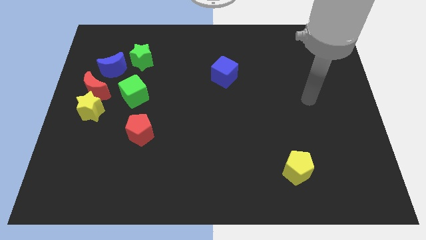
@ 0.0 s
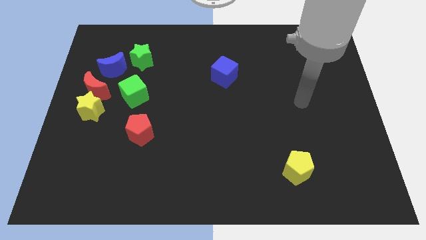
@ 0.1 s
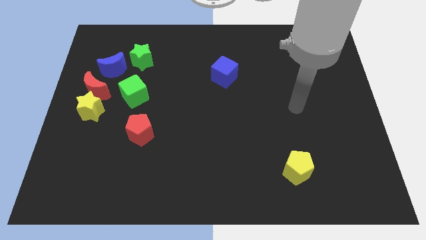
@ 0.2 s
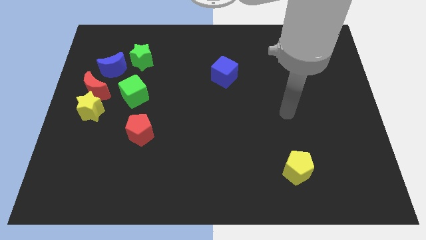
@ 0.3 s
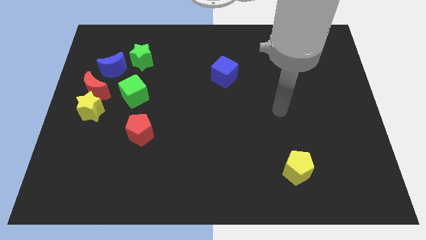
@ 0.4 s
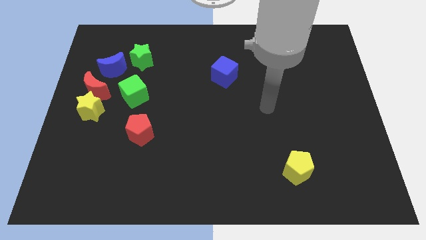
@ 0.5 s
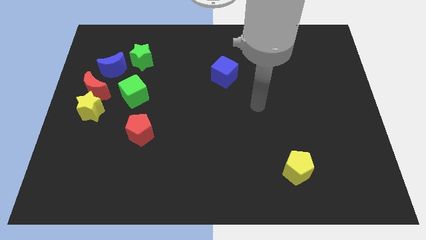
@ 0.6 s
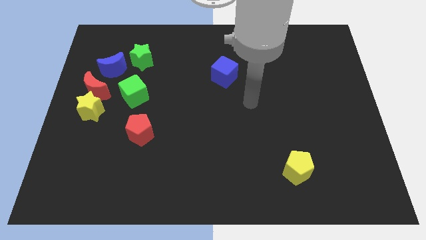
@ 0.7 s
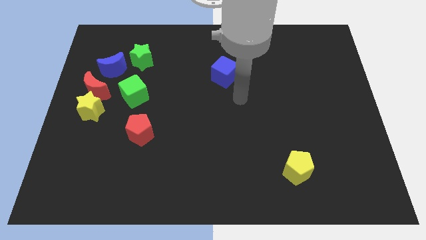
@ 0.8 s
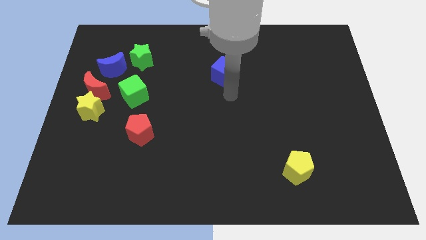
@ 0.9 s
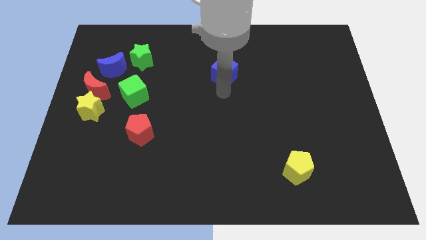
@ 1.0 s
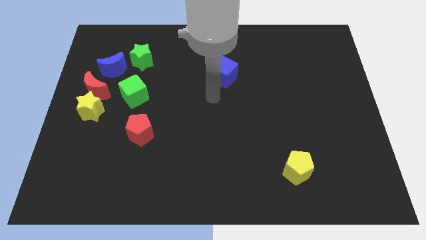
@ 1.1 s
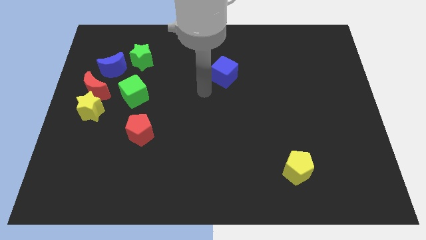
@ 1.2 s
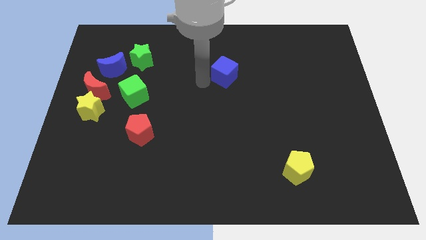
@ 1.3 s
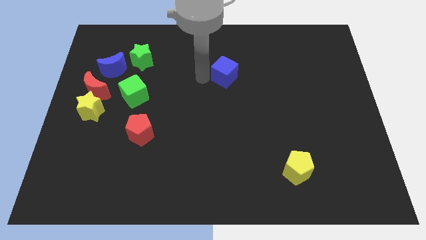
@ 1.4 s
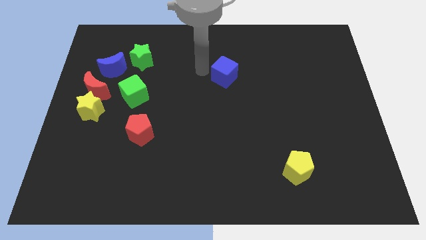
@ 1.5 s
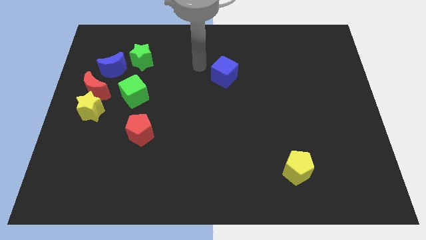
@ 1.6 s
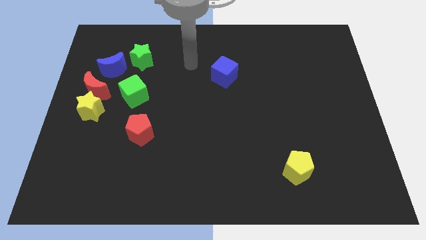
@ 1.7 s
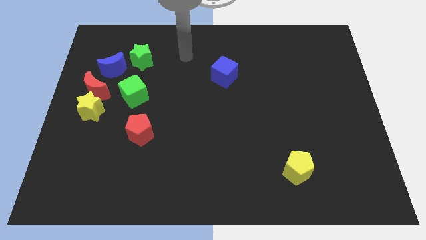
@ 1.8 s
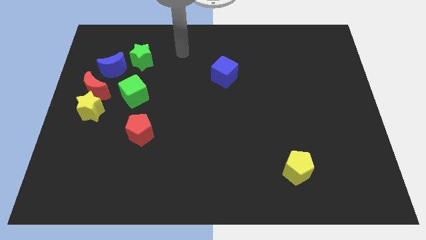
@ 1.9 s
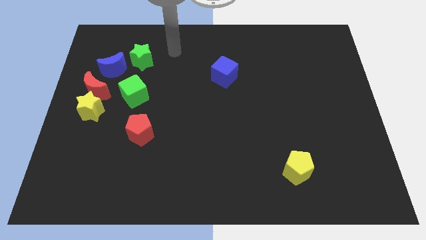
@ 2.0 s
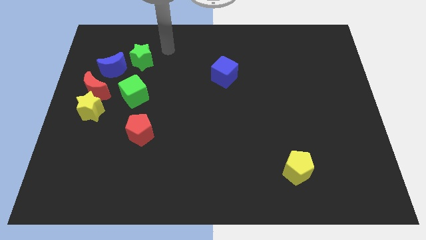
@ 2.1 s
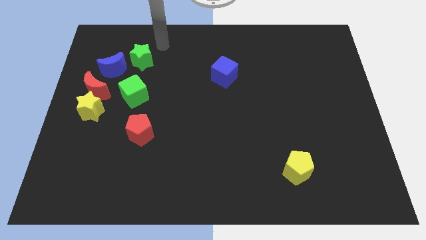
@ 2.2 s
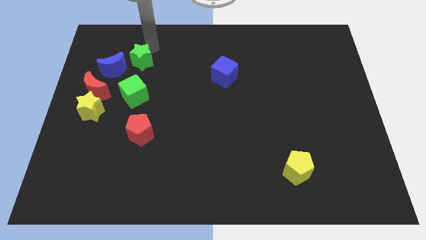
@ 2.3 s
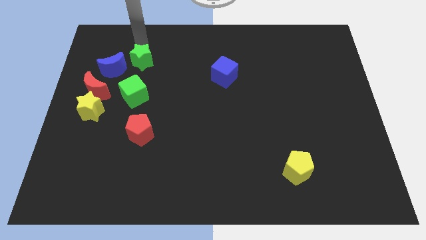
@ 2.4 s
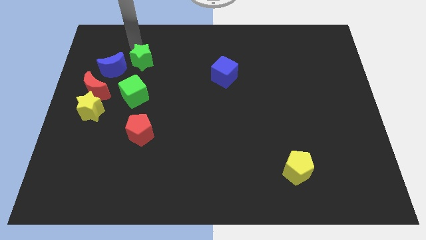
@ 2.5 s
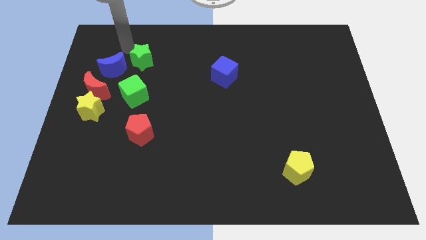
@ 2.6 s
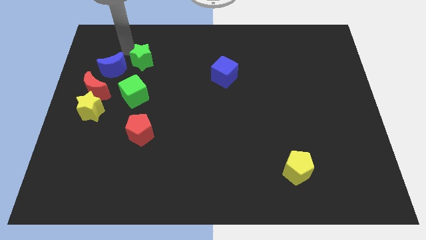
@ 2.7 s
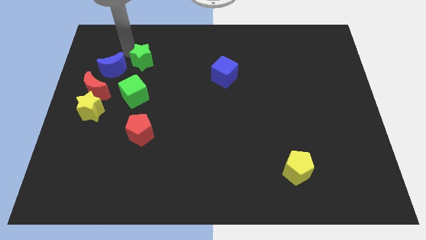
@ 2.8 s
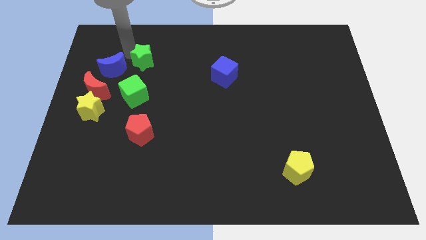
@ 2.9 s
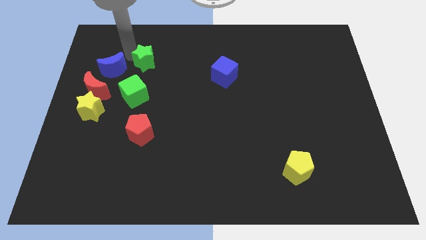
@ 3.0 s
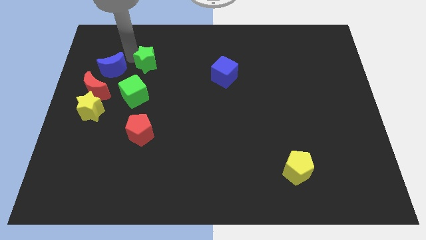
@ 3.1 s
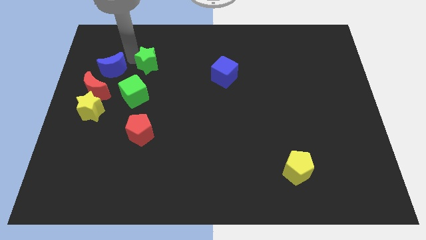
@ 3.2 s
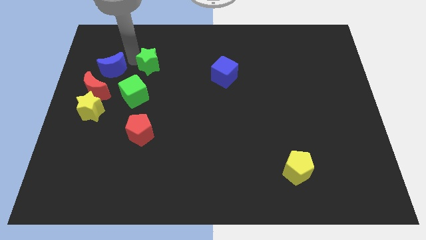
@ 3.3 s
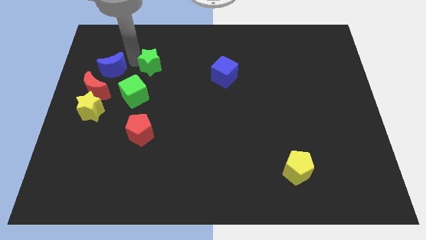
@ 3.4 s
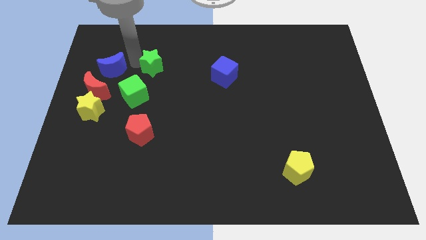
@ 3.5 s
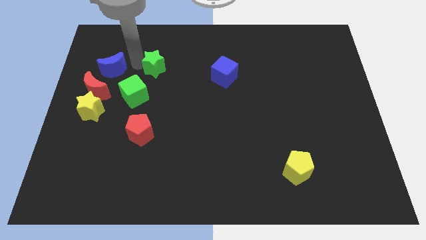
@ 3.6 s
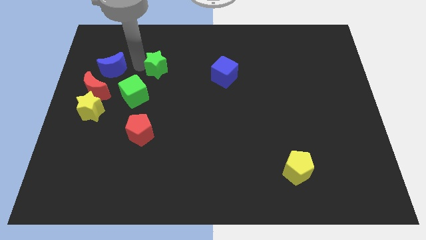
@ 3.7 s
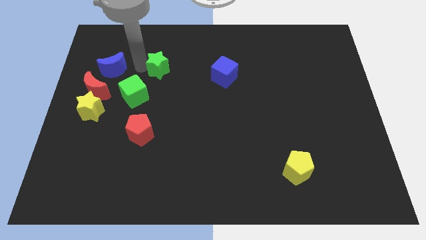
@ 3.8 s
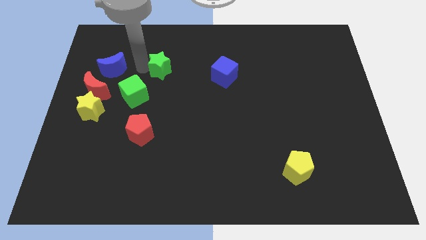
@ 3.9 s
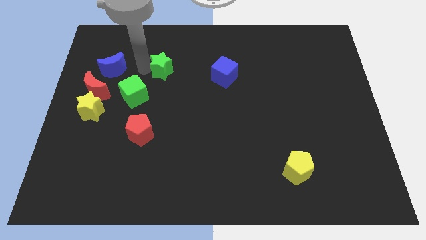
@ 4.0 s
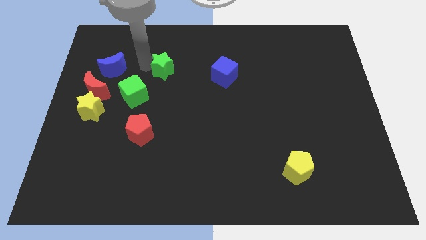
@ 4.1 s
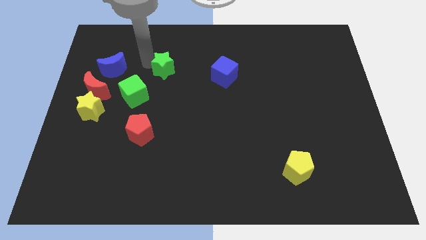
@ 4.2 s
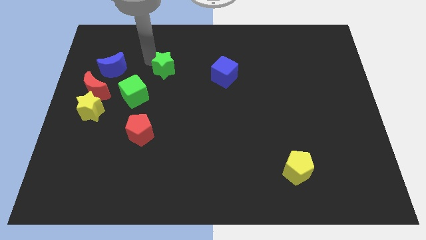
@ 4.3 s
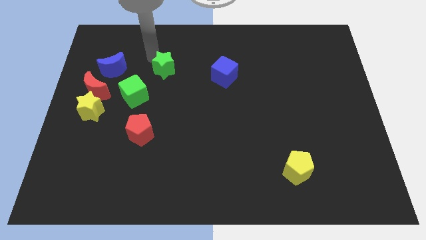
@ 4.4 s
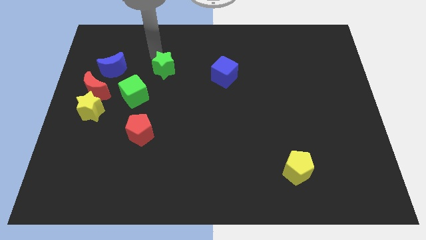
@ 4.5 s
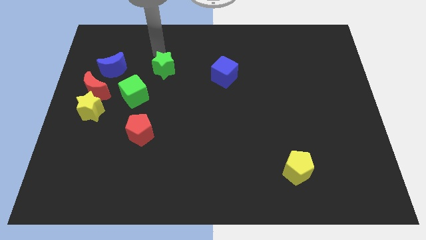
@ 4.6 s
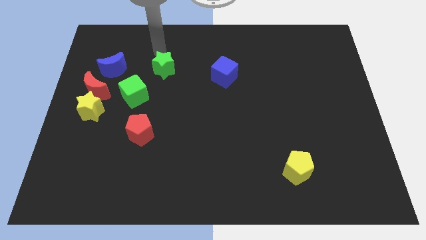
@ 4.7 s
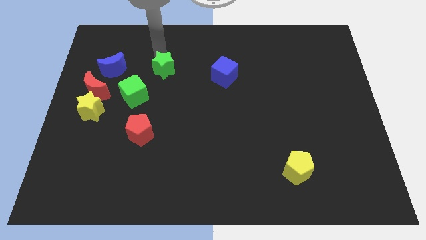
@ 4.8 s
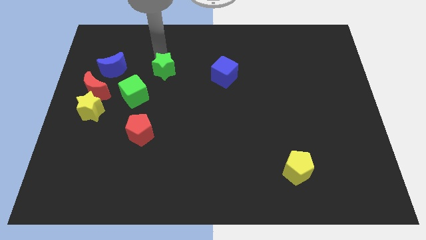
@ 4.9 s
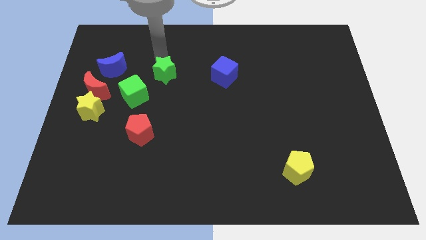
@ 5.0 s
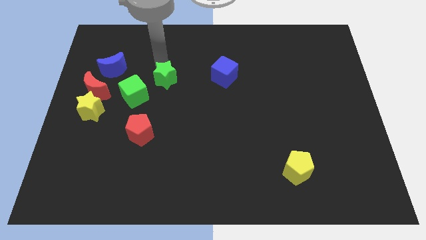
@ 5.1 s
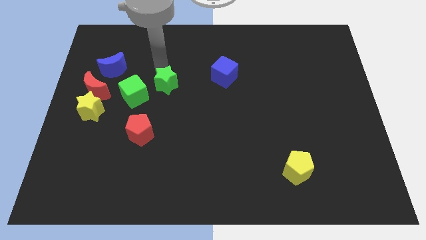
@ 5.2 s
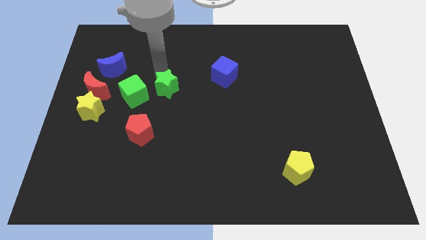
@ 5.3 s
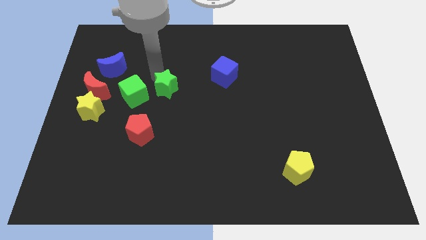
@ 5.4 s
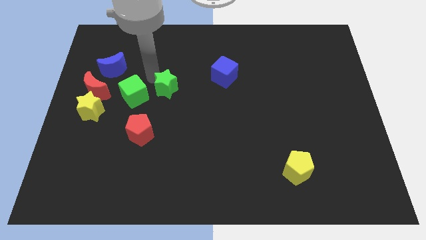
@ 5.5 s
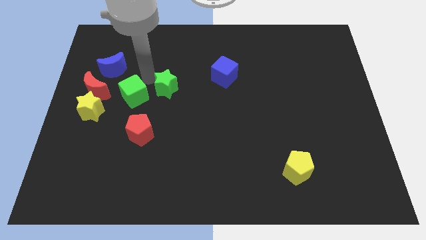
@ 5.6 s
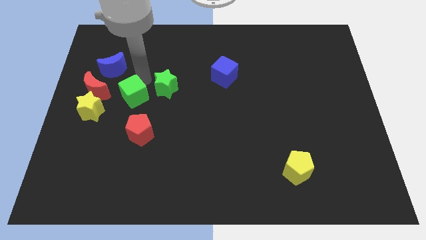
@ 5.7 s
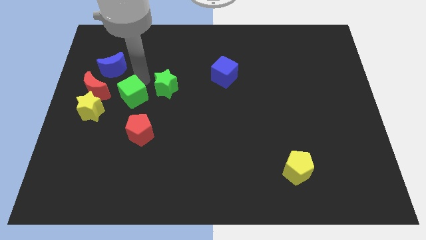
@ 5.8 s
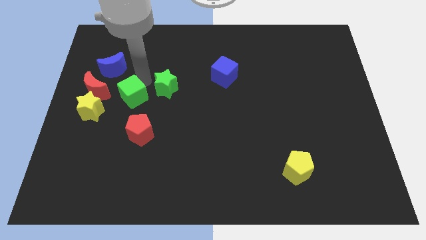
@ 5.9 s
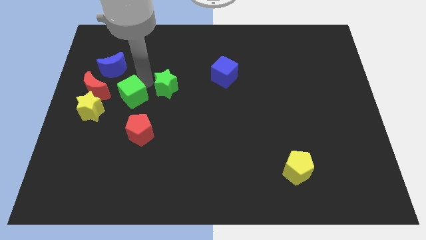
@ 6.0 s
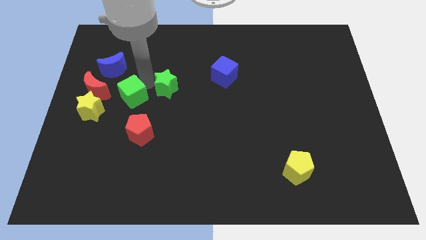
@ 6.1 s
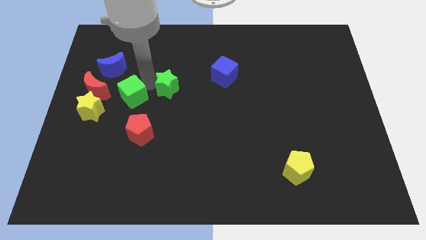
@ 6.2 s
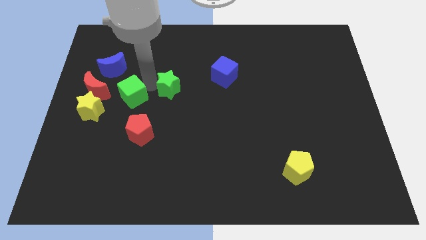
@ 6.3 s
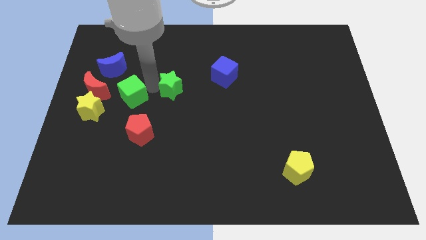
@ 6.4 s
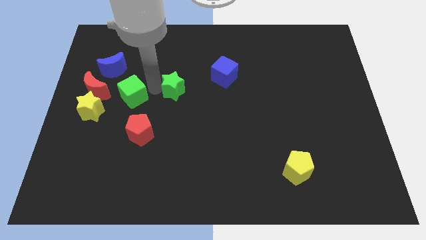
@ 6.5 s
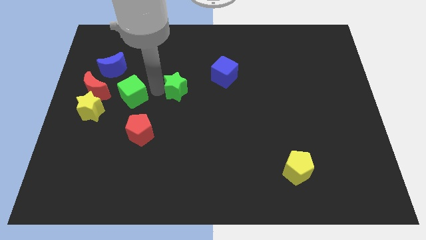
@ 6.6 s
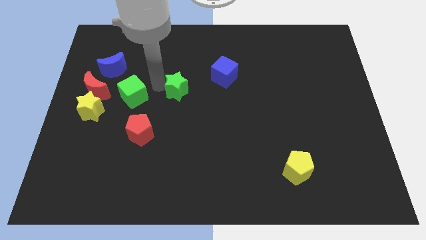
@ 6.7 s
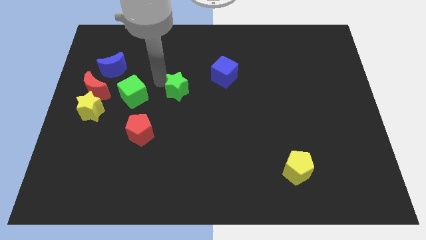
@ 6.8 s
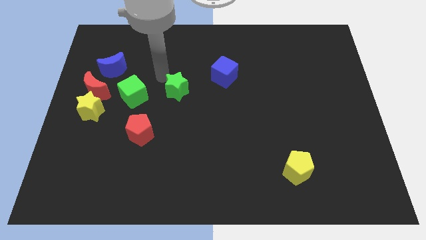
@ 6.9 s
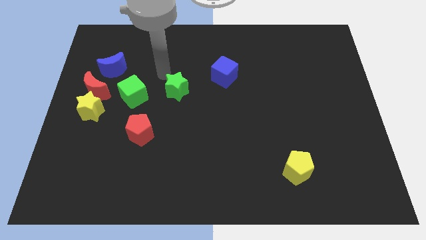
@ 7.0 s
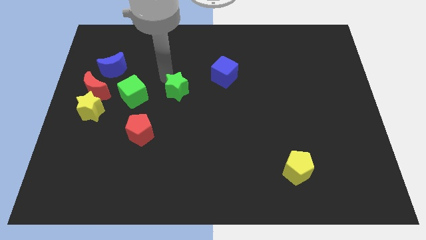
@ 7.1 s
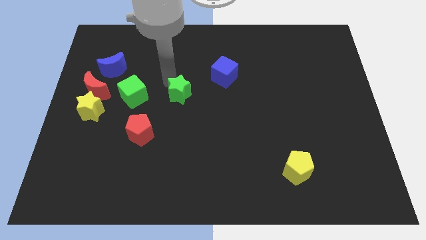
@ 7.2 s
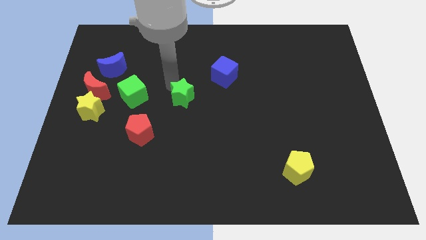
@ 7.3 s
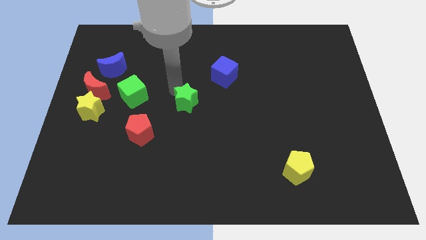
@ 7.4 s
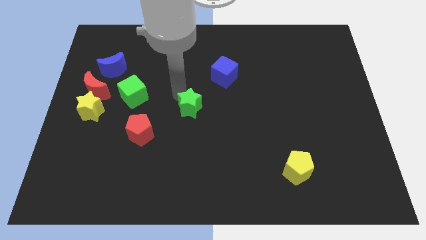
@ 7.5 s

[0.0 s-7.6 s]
slide the green star down and then to the right

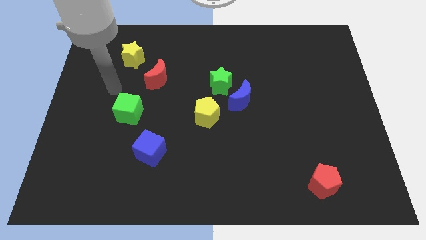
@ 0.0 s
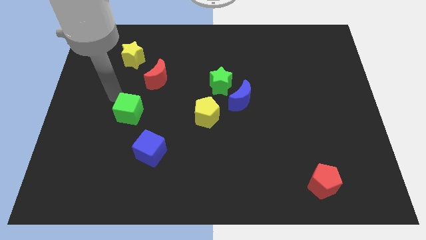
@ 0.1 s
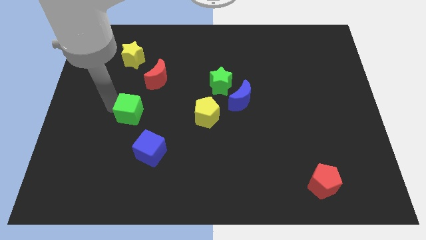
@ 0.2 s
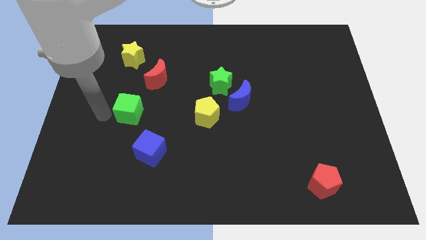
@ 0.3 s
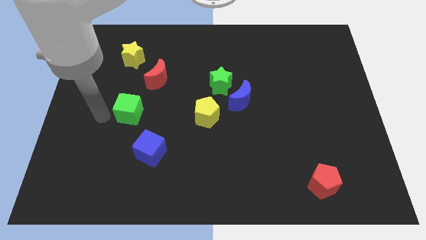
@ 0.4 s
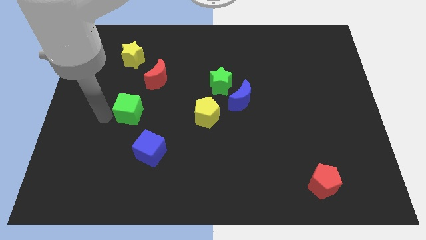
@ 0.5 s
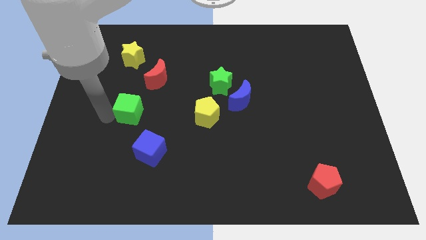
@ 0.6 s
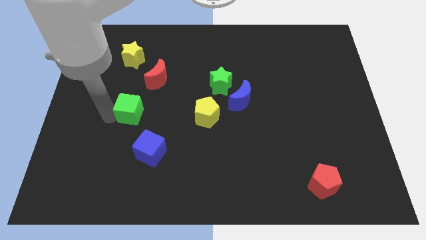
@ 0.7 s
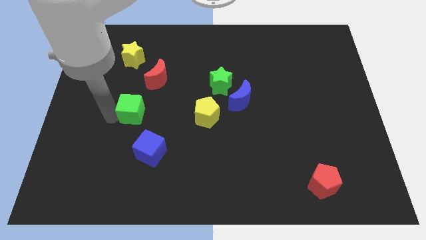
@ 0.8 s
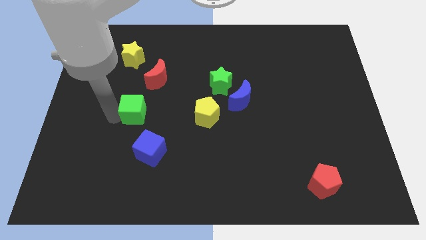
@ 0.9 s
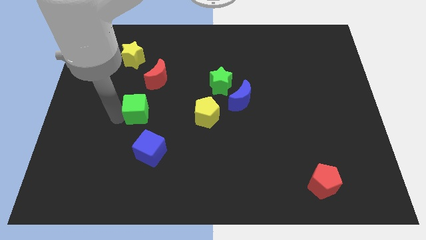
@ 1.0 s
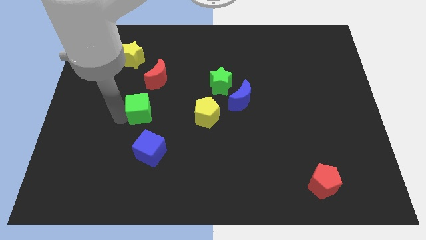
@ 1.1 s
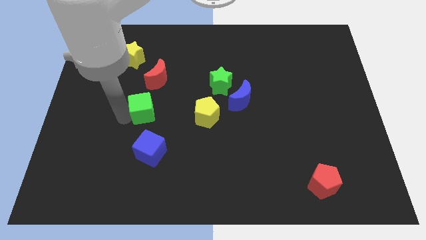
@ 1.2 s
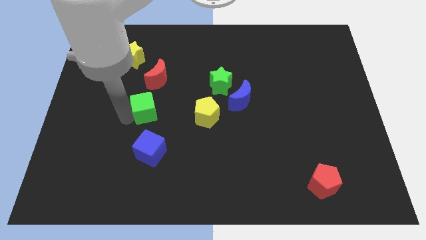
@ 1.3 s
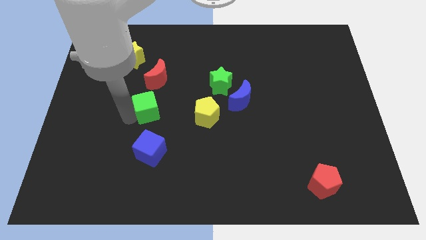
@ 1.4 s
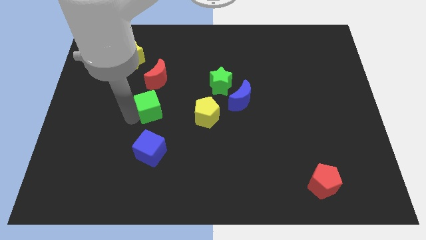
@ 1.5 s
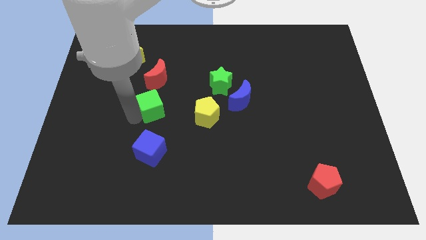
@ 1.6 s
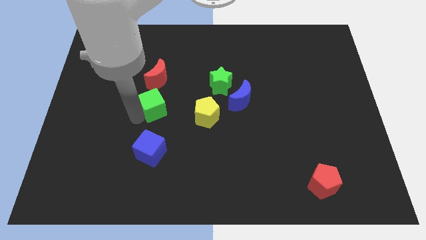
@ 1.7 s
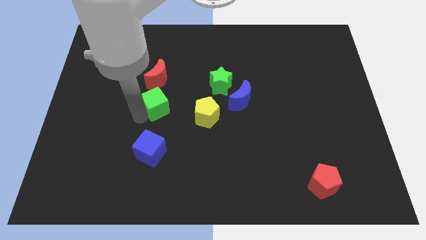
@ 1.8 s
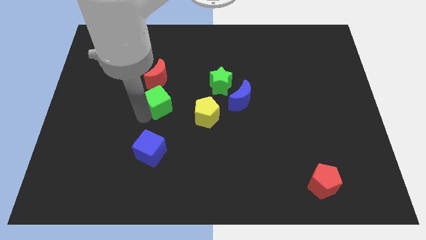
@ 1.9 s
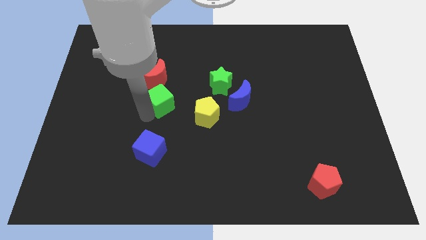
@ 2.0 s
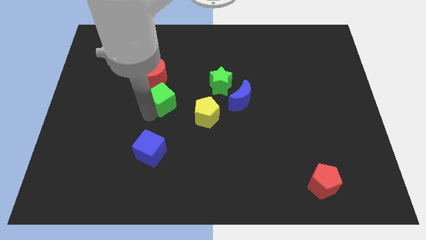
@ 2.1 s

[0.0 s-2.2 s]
slide the green cube somewhat up and to the right
